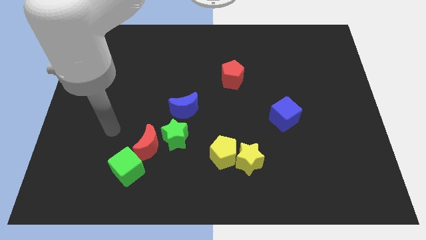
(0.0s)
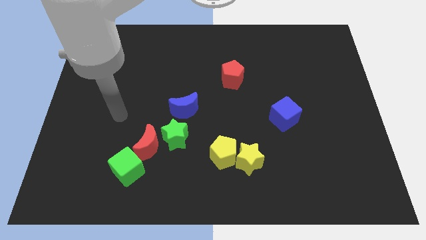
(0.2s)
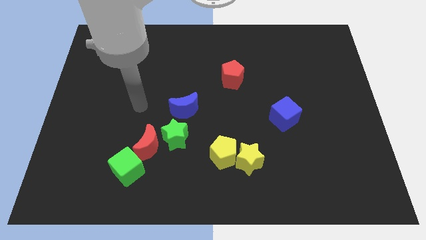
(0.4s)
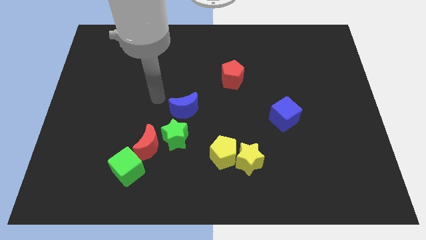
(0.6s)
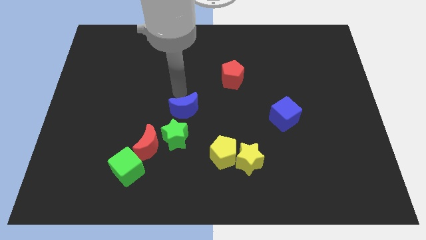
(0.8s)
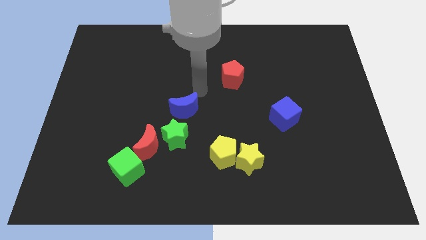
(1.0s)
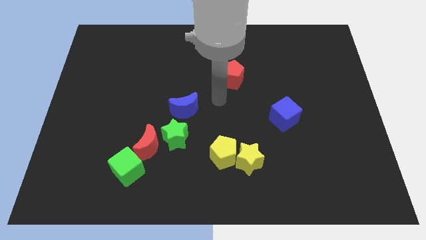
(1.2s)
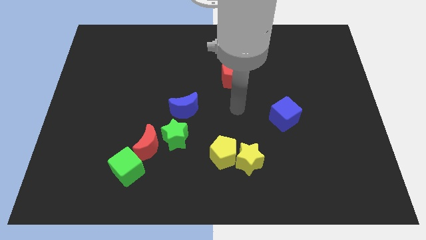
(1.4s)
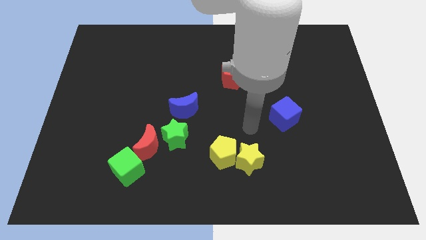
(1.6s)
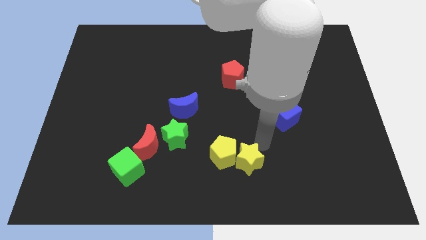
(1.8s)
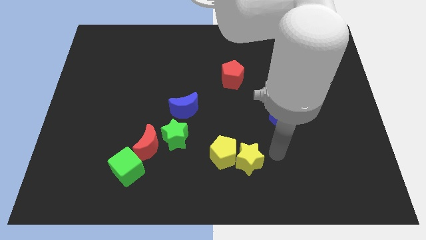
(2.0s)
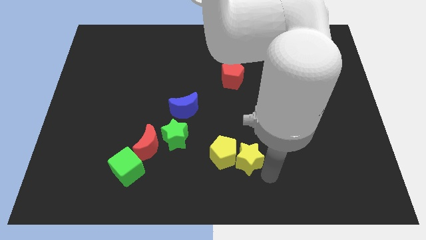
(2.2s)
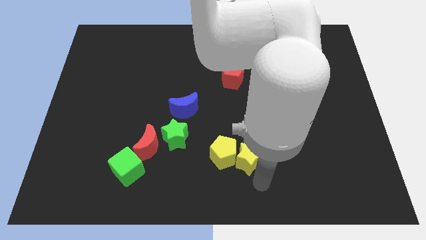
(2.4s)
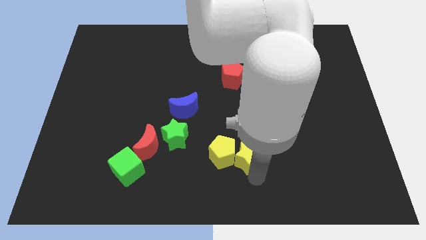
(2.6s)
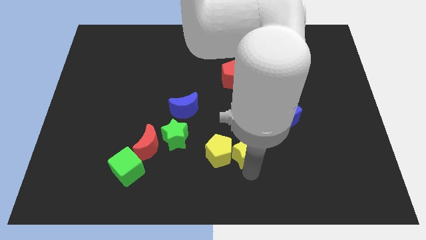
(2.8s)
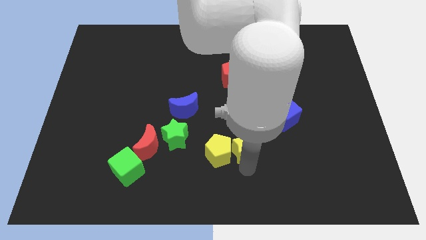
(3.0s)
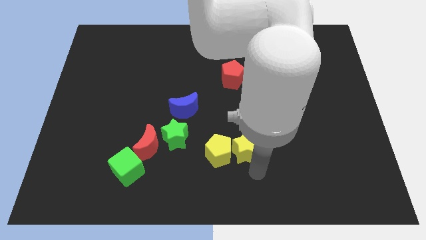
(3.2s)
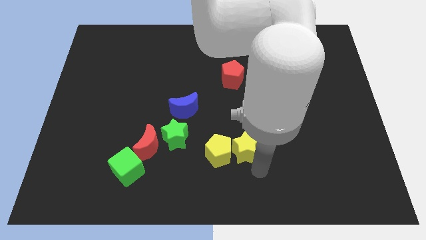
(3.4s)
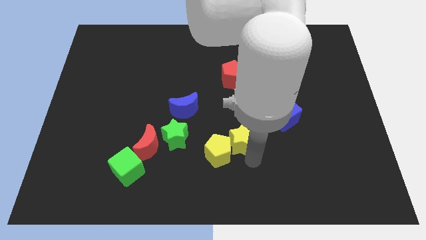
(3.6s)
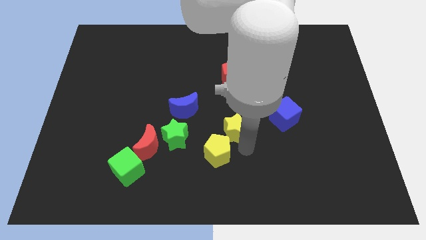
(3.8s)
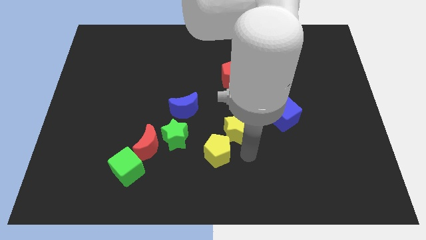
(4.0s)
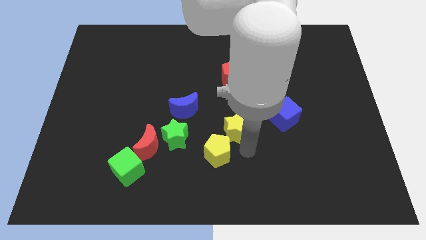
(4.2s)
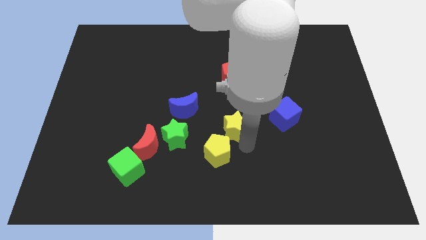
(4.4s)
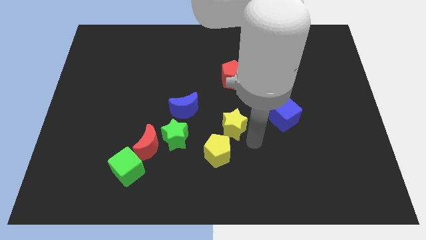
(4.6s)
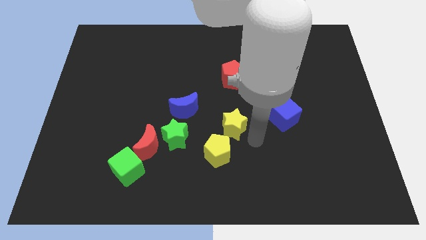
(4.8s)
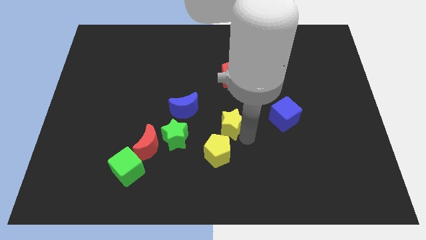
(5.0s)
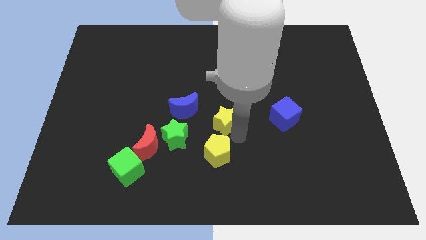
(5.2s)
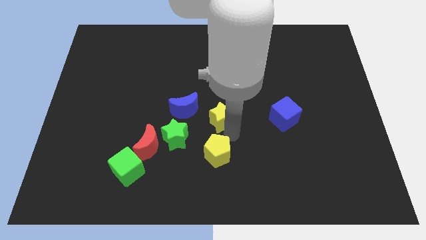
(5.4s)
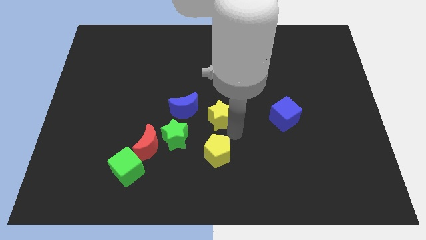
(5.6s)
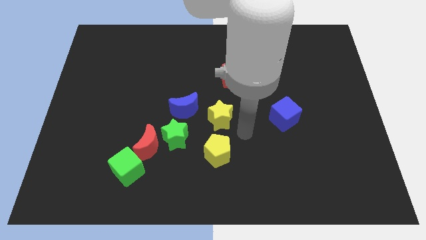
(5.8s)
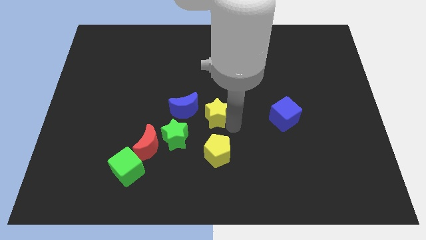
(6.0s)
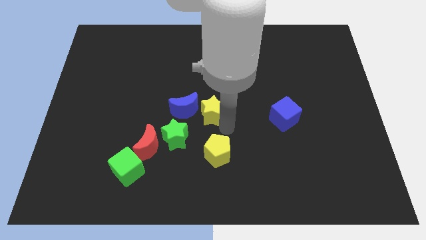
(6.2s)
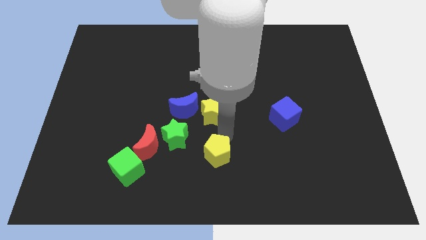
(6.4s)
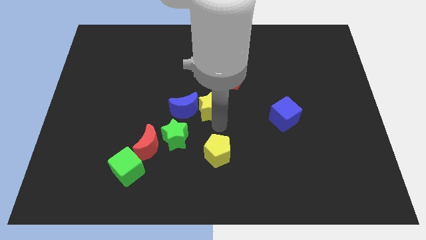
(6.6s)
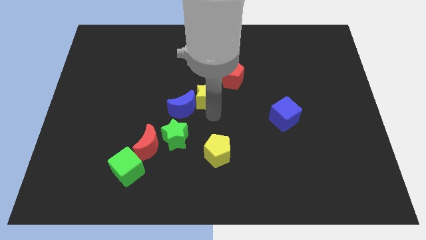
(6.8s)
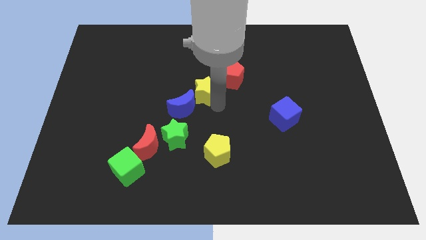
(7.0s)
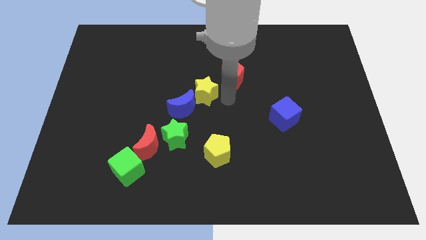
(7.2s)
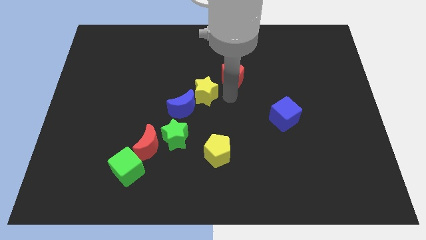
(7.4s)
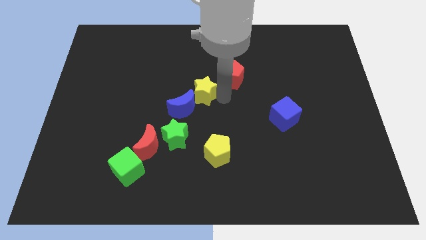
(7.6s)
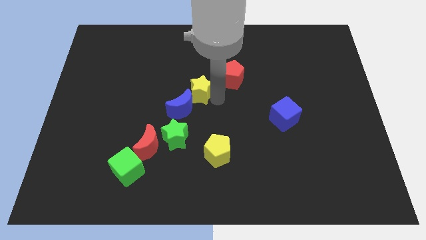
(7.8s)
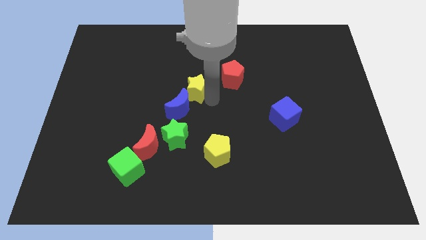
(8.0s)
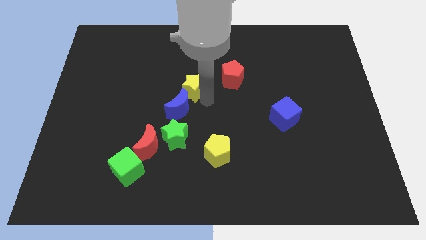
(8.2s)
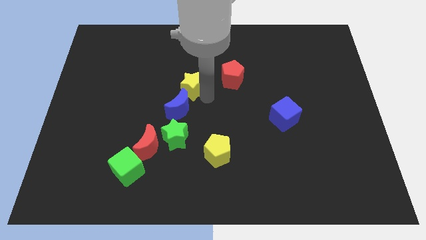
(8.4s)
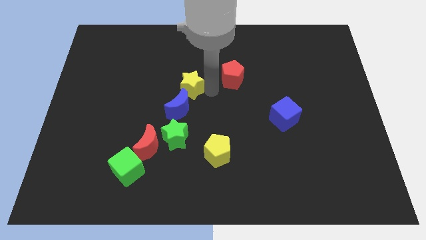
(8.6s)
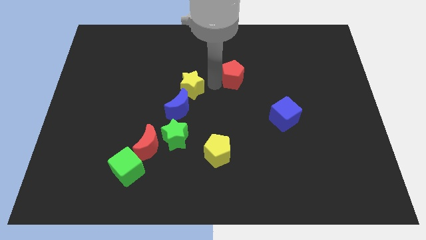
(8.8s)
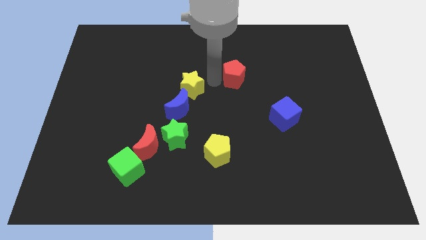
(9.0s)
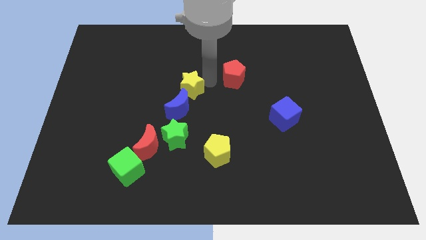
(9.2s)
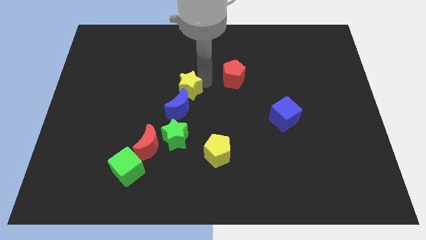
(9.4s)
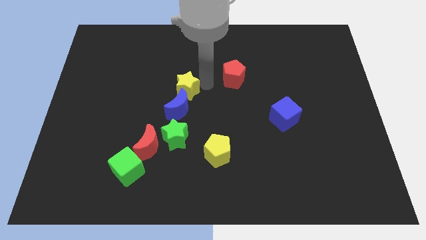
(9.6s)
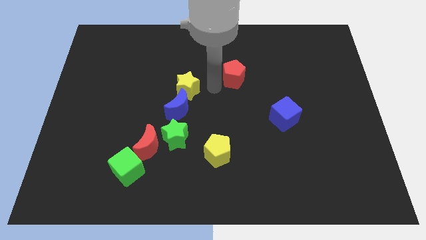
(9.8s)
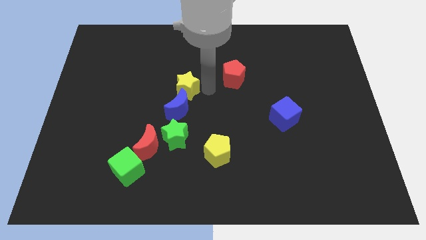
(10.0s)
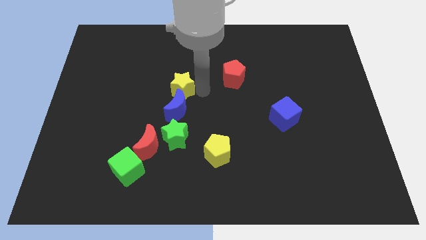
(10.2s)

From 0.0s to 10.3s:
put the yellow star to the top left of the blue moon

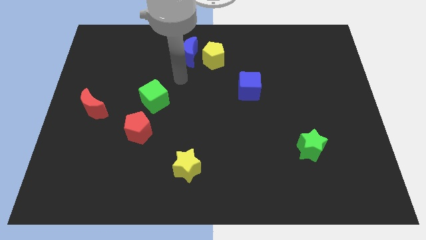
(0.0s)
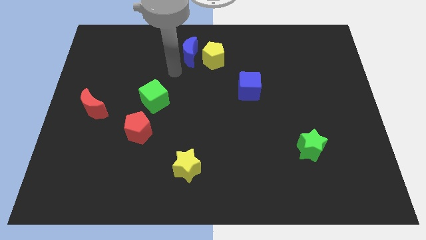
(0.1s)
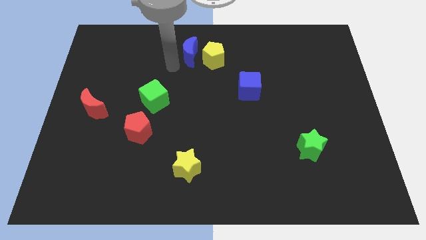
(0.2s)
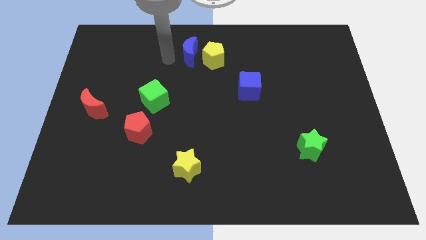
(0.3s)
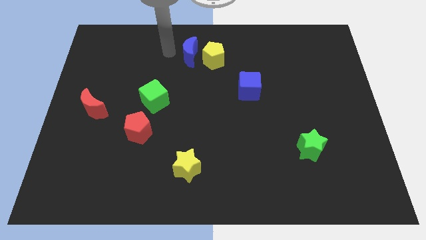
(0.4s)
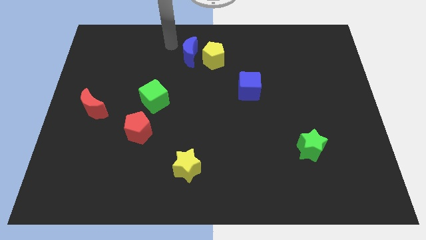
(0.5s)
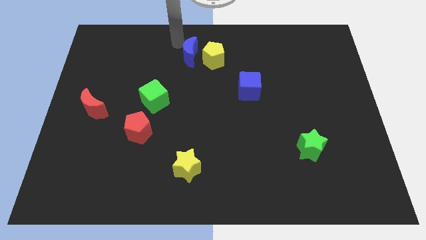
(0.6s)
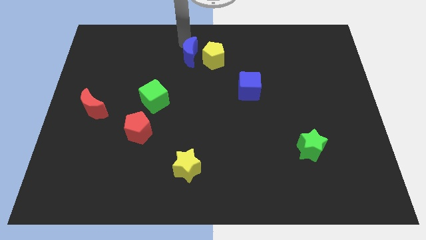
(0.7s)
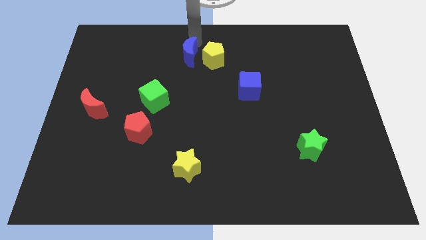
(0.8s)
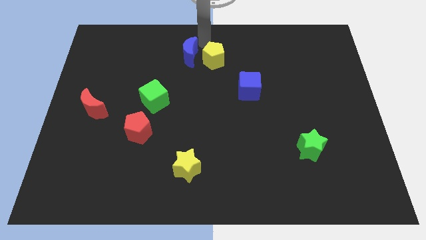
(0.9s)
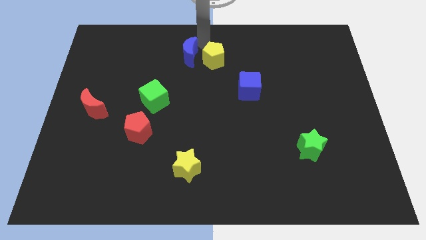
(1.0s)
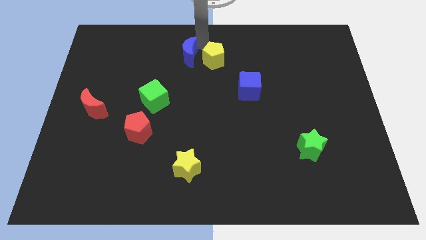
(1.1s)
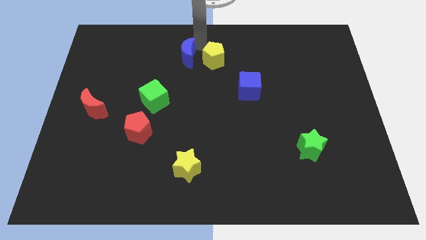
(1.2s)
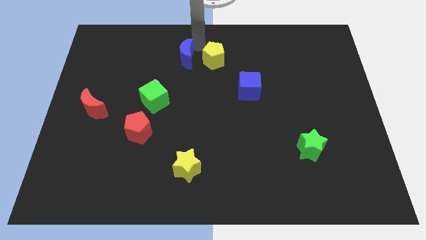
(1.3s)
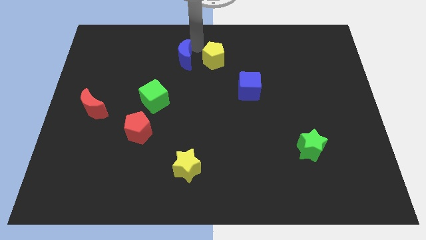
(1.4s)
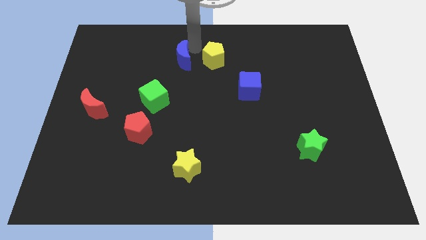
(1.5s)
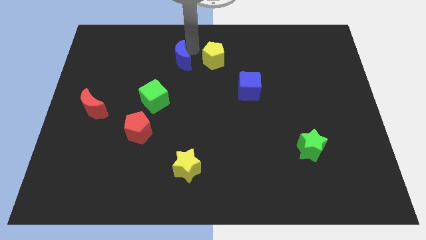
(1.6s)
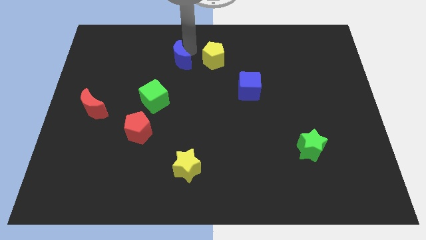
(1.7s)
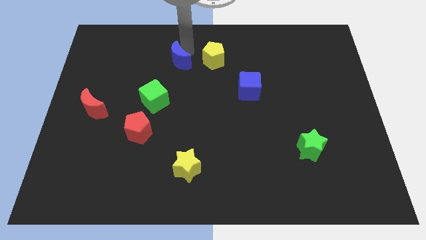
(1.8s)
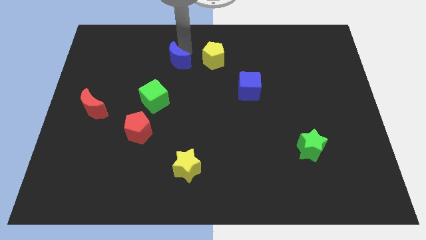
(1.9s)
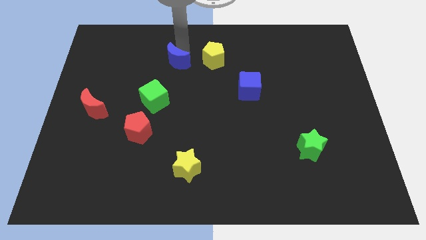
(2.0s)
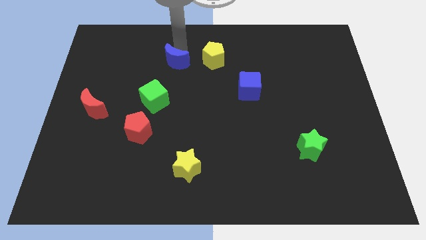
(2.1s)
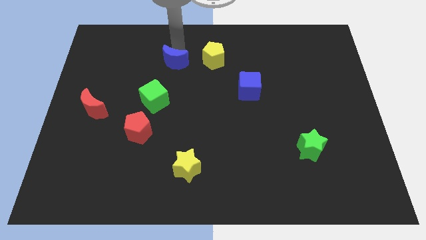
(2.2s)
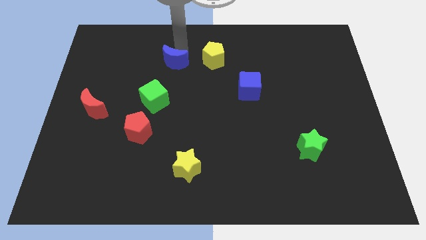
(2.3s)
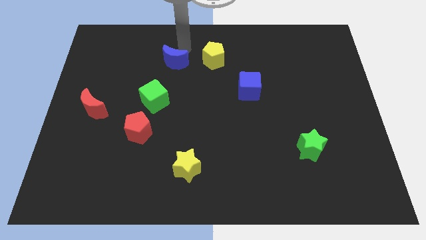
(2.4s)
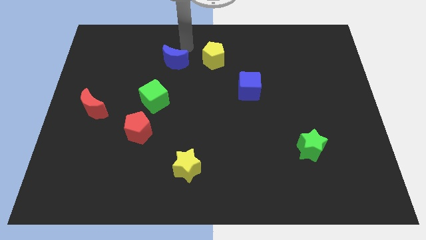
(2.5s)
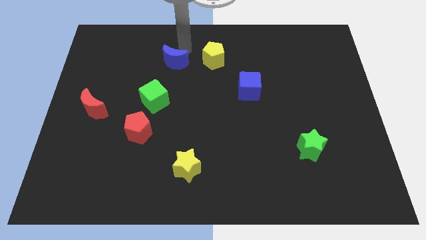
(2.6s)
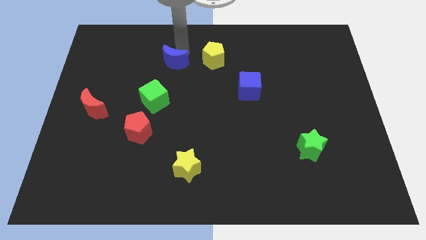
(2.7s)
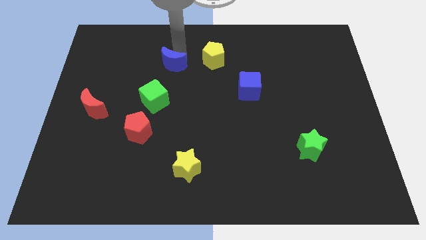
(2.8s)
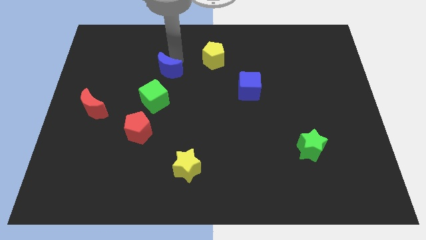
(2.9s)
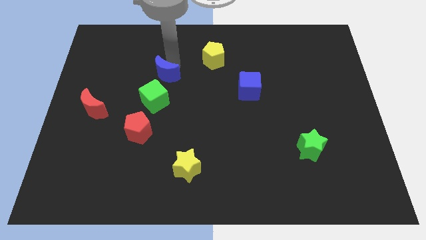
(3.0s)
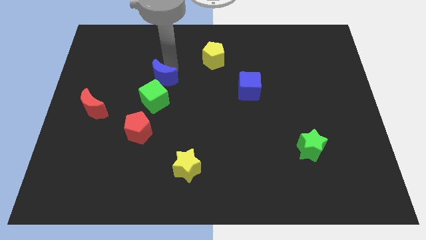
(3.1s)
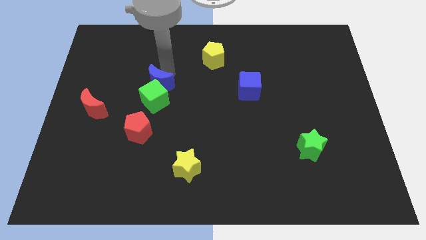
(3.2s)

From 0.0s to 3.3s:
move the blue moon above the red pentagon
